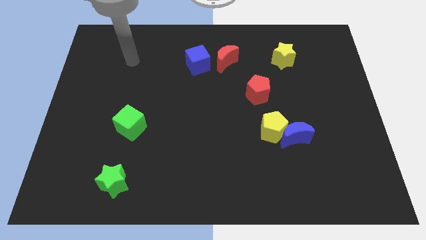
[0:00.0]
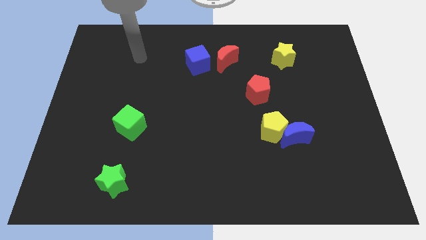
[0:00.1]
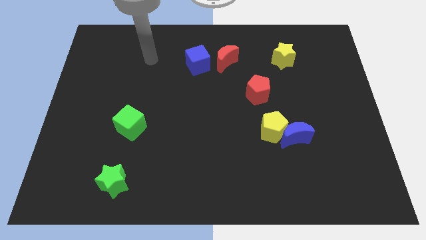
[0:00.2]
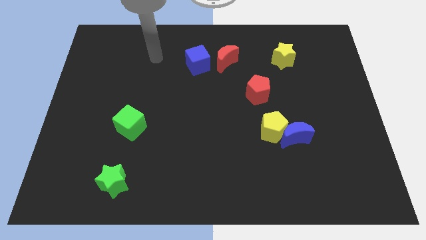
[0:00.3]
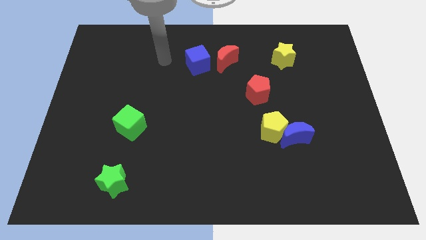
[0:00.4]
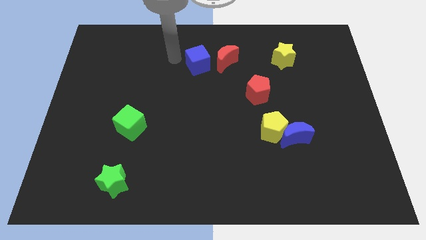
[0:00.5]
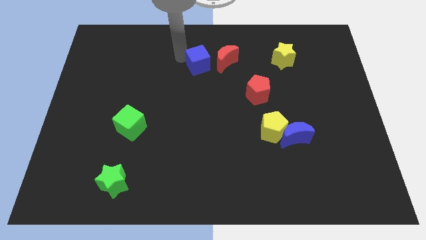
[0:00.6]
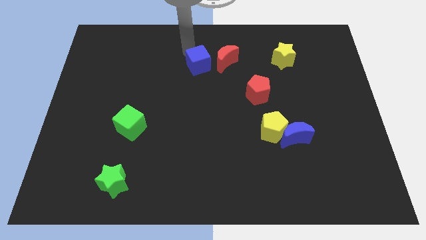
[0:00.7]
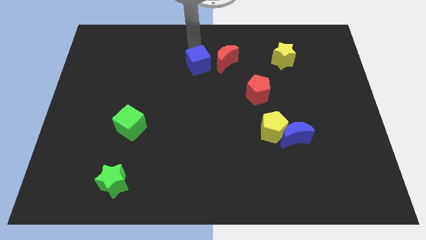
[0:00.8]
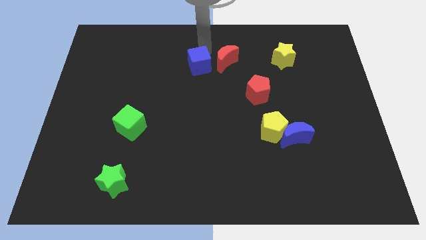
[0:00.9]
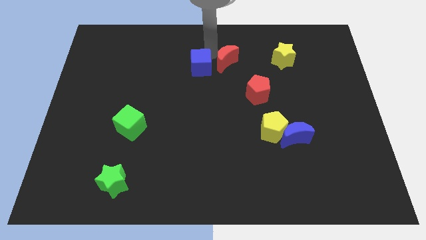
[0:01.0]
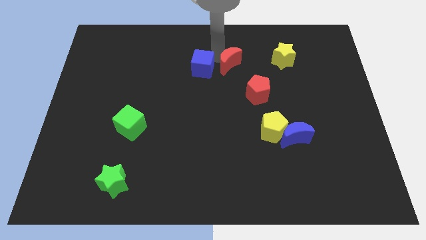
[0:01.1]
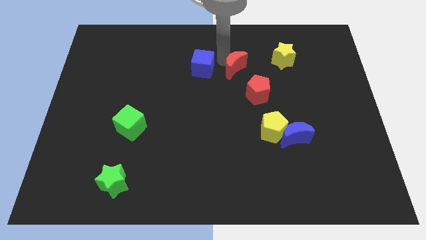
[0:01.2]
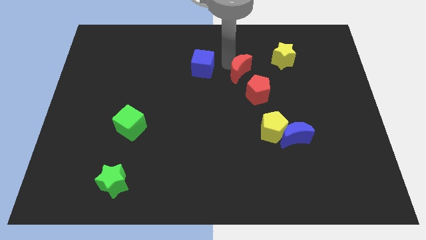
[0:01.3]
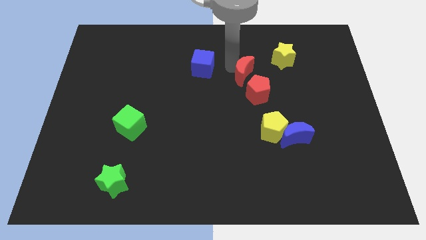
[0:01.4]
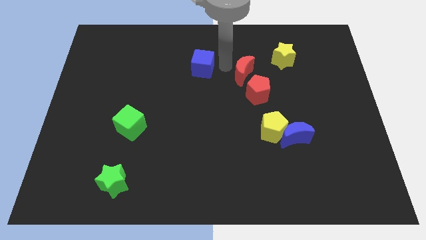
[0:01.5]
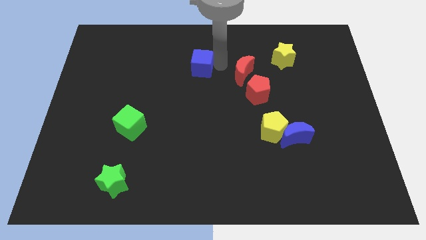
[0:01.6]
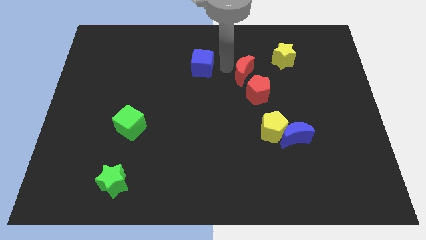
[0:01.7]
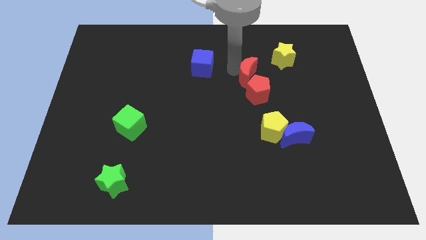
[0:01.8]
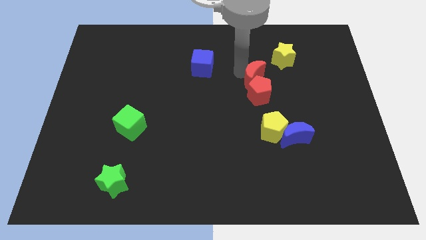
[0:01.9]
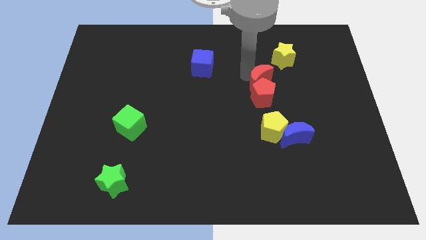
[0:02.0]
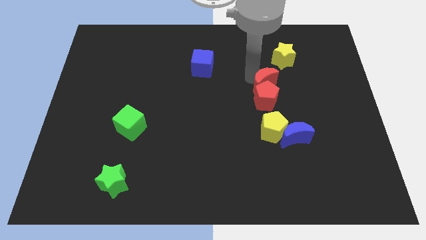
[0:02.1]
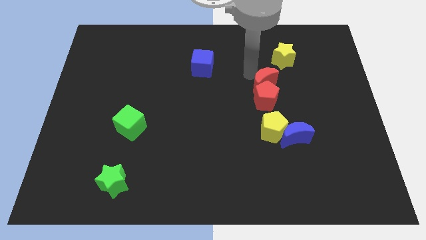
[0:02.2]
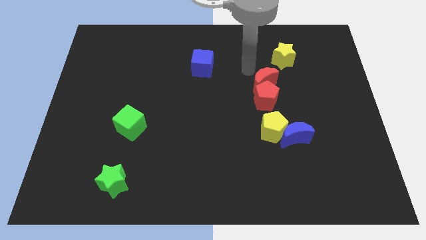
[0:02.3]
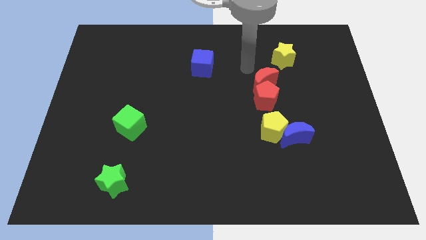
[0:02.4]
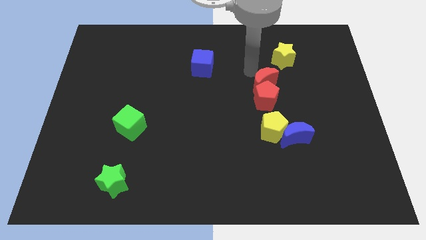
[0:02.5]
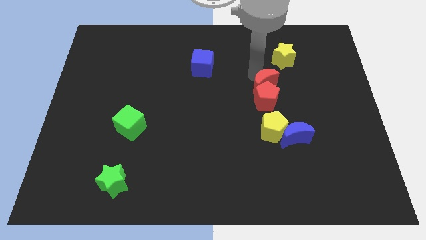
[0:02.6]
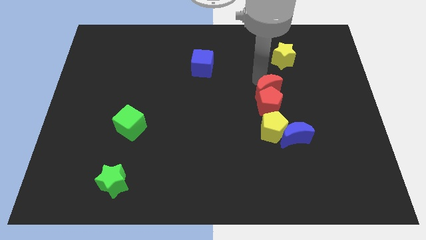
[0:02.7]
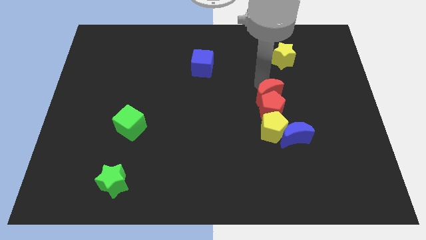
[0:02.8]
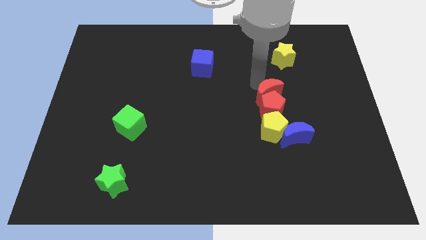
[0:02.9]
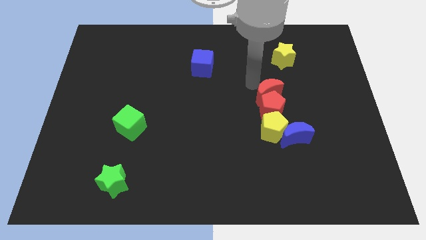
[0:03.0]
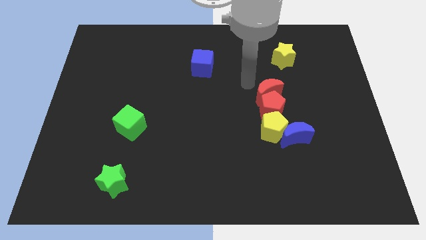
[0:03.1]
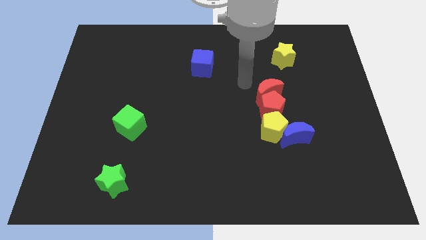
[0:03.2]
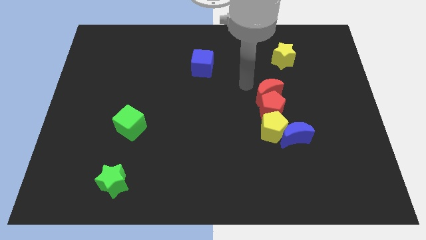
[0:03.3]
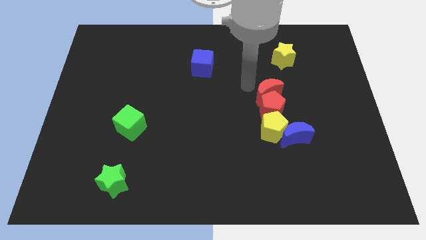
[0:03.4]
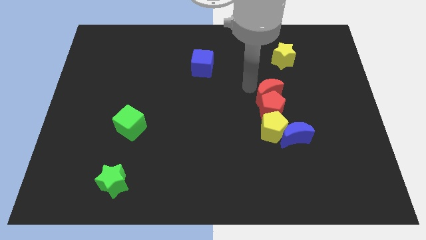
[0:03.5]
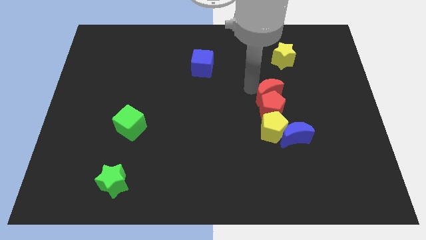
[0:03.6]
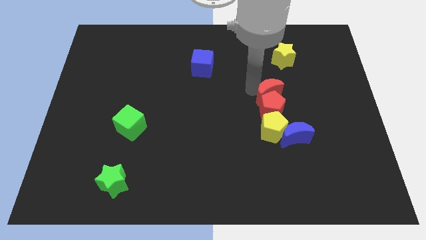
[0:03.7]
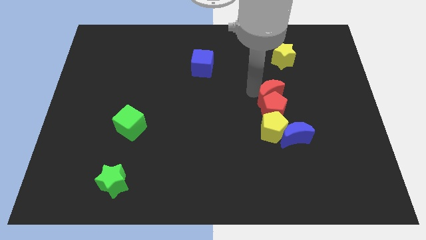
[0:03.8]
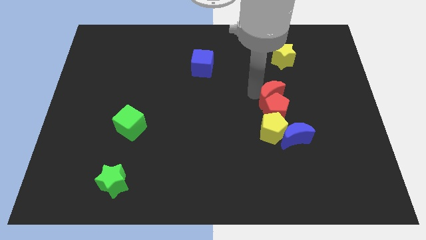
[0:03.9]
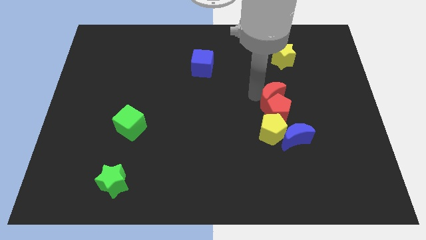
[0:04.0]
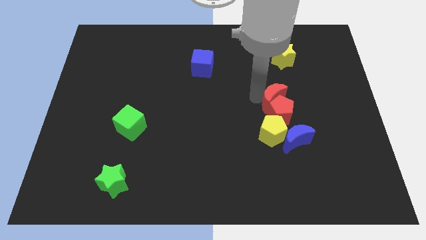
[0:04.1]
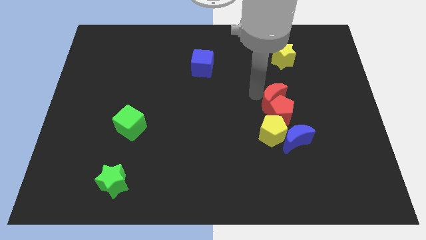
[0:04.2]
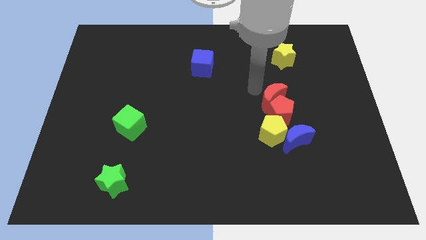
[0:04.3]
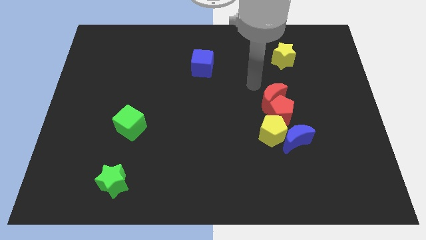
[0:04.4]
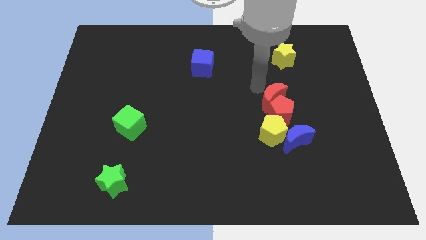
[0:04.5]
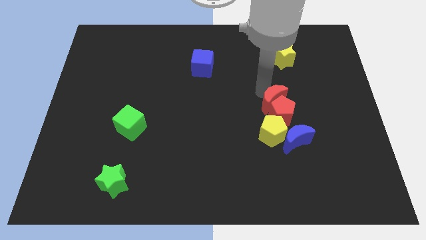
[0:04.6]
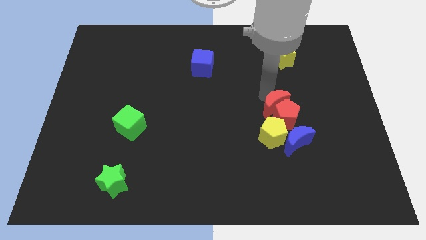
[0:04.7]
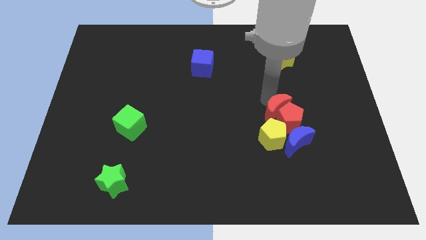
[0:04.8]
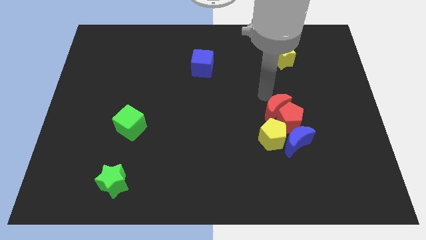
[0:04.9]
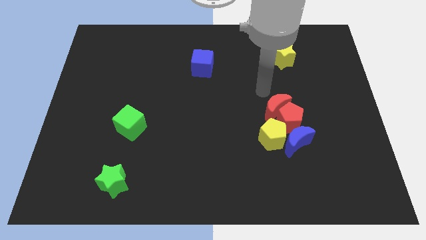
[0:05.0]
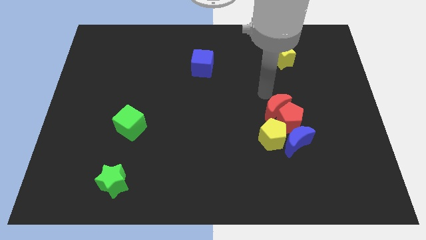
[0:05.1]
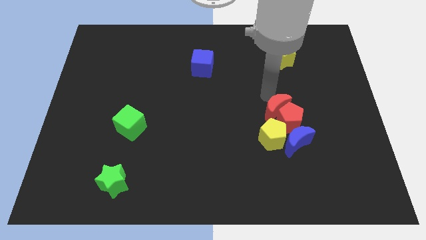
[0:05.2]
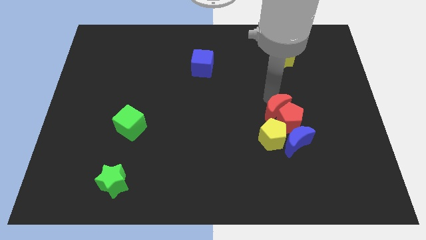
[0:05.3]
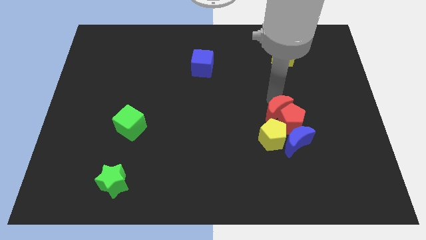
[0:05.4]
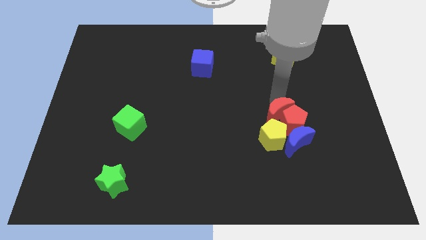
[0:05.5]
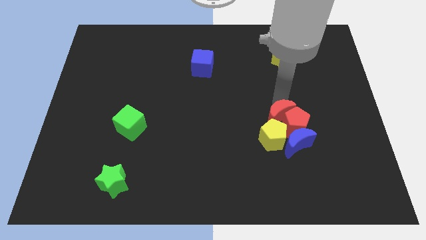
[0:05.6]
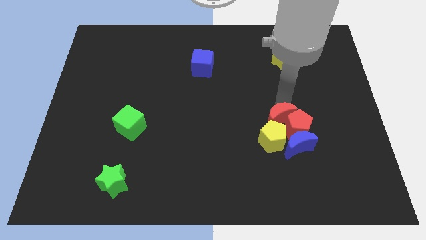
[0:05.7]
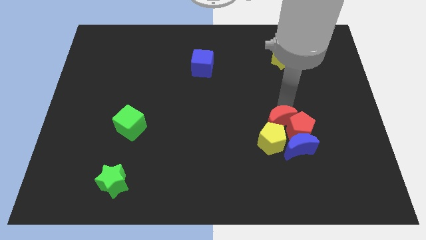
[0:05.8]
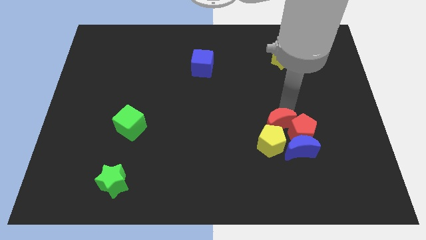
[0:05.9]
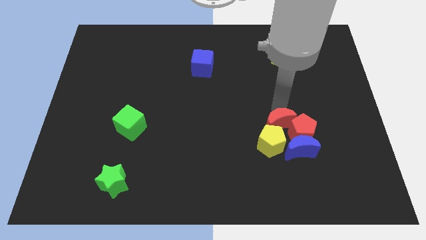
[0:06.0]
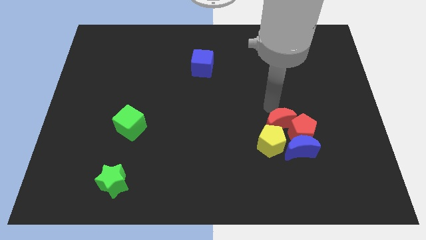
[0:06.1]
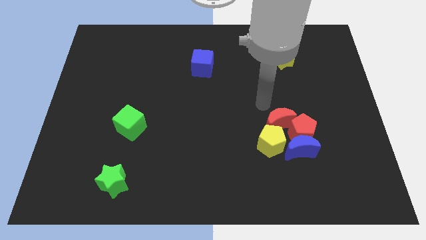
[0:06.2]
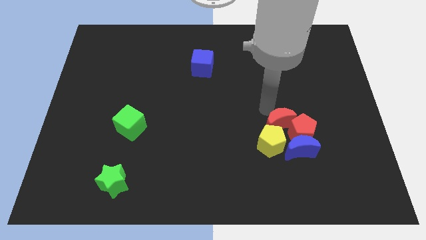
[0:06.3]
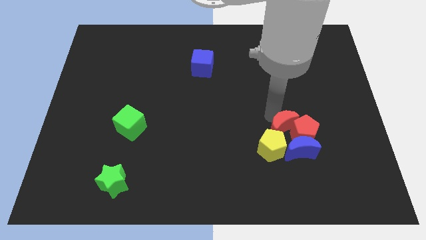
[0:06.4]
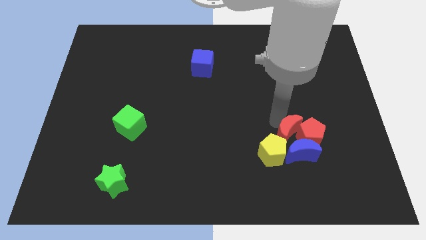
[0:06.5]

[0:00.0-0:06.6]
put the red moon close to the blue moon

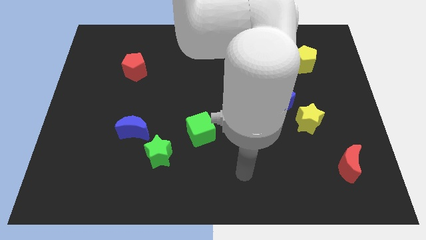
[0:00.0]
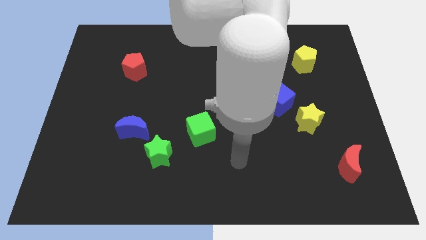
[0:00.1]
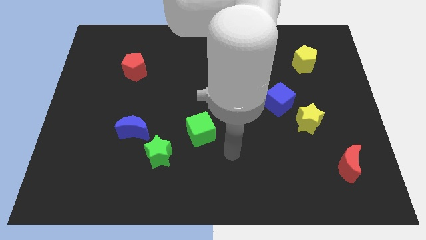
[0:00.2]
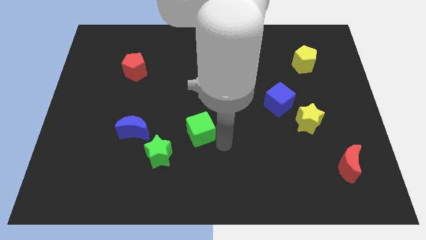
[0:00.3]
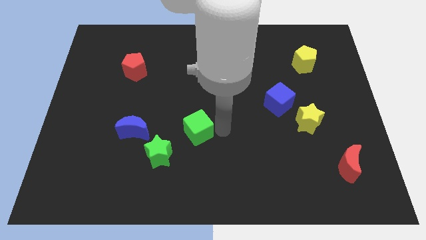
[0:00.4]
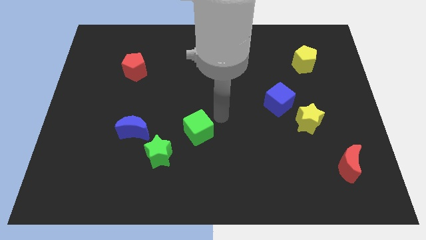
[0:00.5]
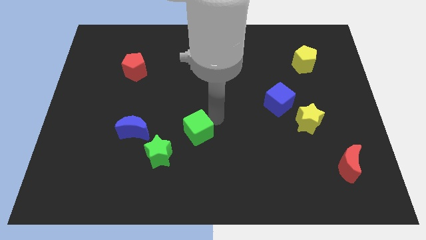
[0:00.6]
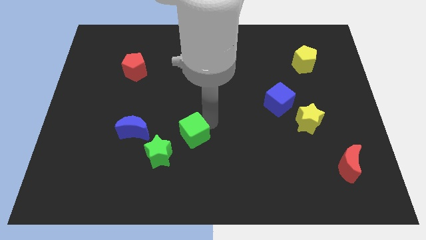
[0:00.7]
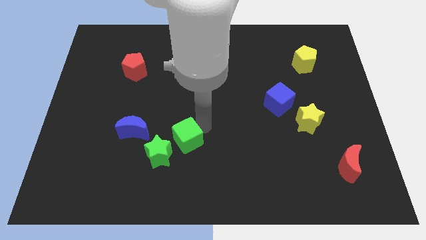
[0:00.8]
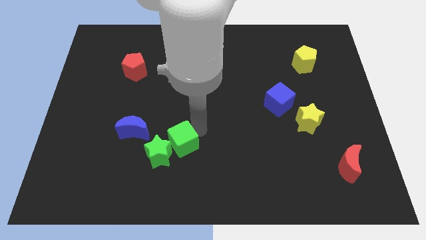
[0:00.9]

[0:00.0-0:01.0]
put the green cube towards the green star
